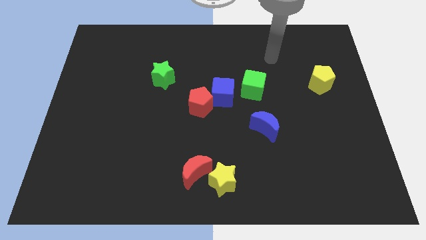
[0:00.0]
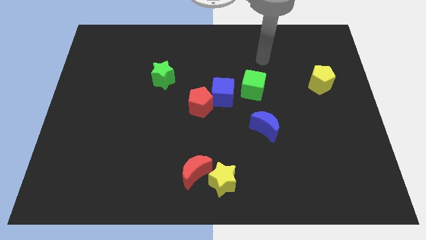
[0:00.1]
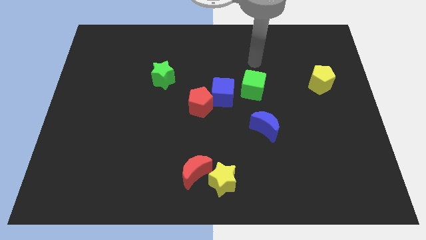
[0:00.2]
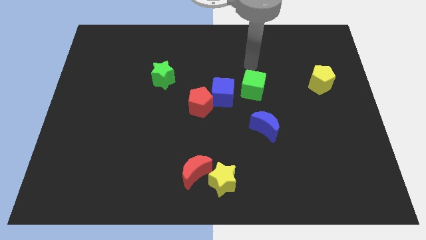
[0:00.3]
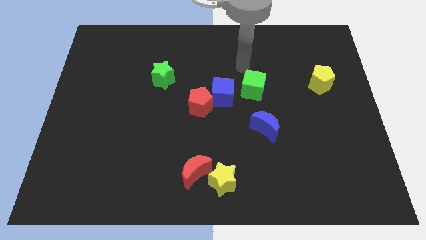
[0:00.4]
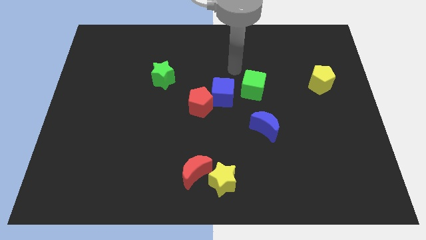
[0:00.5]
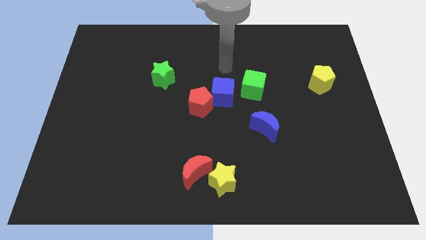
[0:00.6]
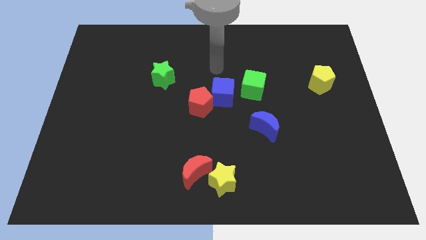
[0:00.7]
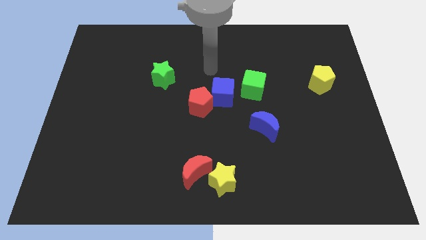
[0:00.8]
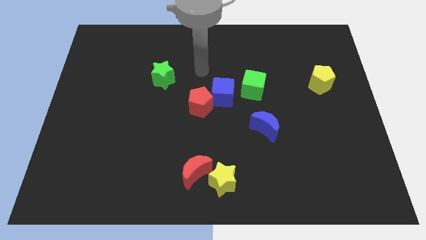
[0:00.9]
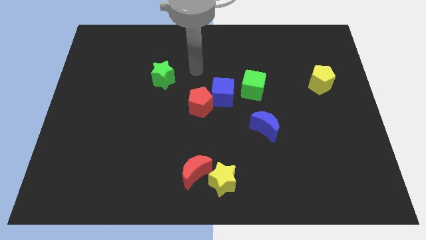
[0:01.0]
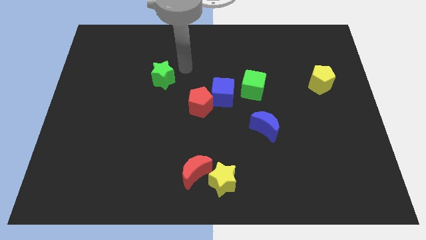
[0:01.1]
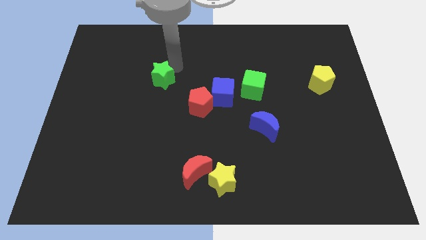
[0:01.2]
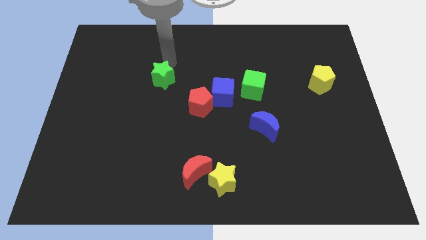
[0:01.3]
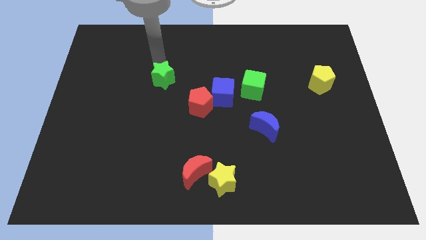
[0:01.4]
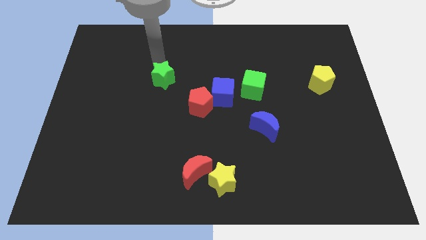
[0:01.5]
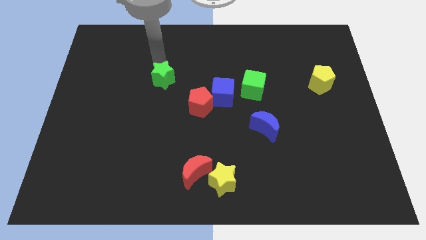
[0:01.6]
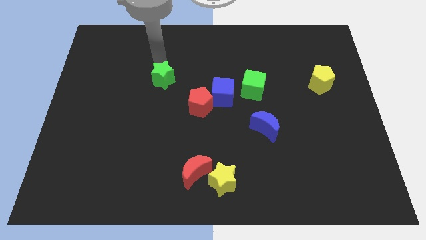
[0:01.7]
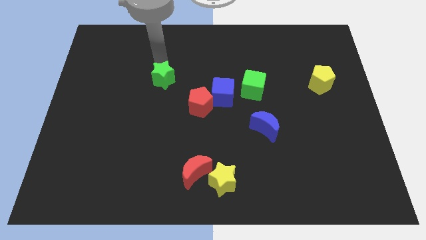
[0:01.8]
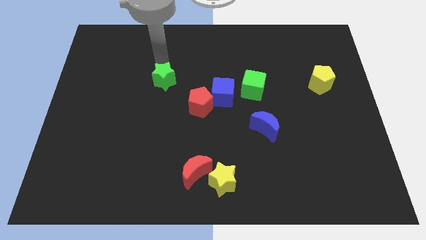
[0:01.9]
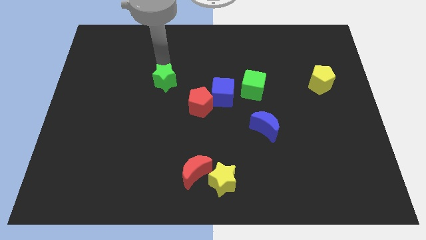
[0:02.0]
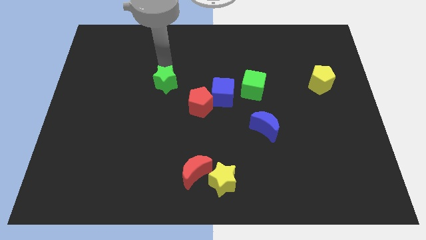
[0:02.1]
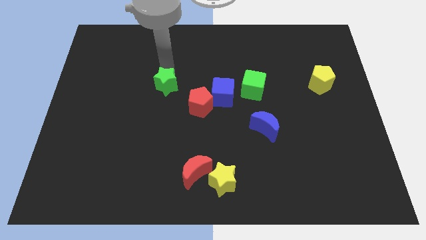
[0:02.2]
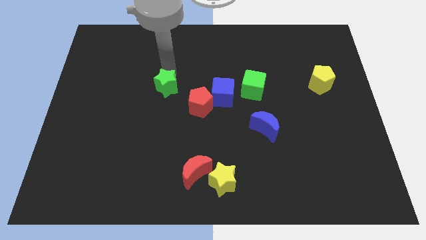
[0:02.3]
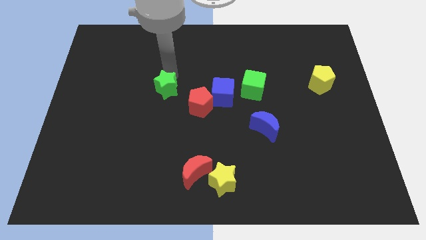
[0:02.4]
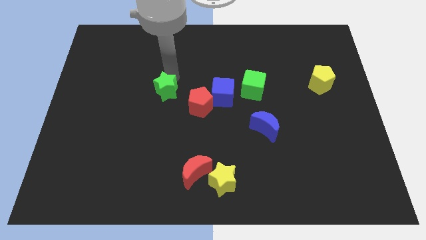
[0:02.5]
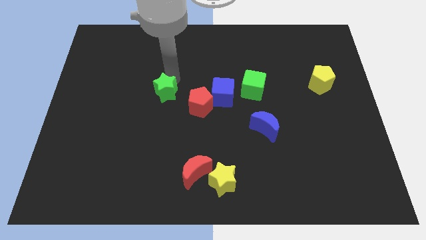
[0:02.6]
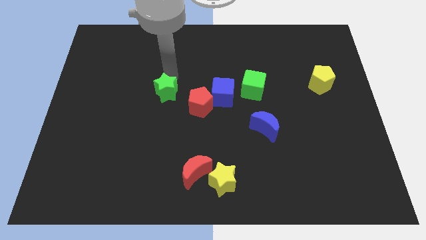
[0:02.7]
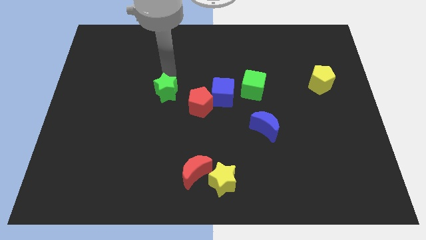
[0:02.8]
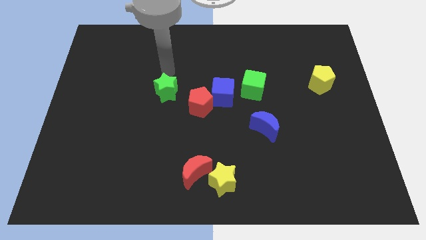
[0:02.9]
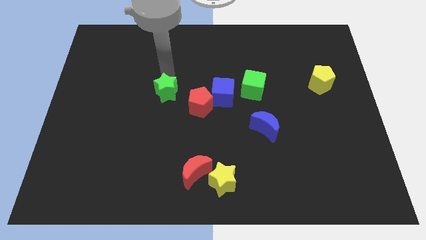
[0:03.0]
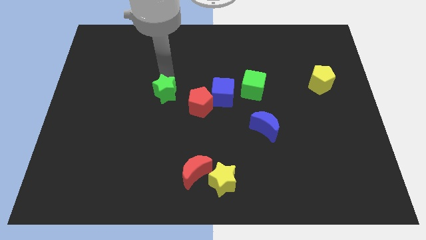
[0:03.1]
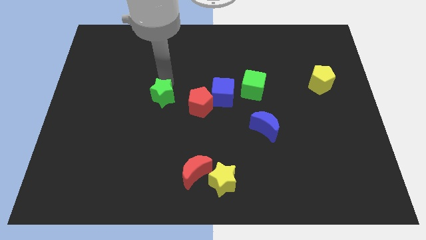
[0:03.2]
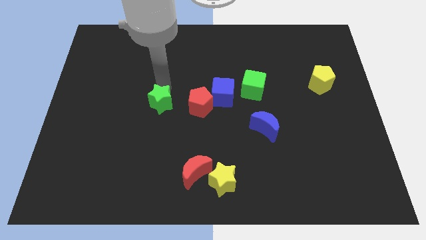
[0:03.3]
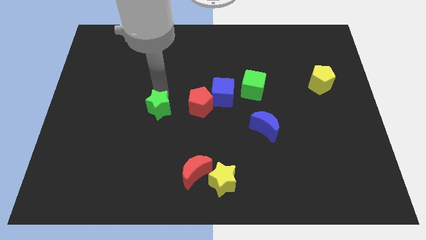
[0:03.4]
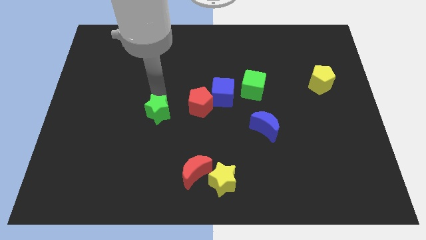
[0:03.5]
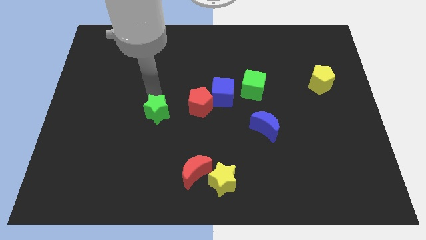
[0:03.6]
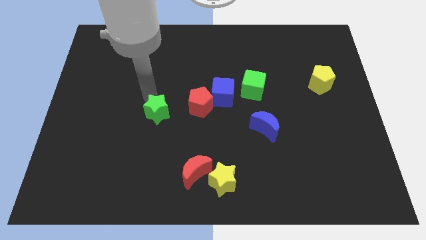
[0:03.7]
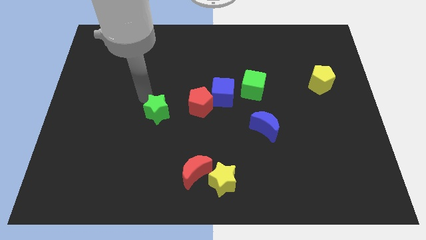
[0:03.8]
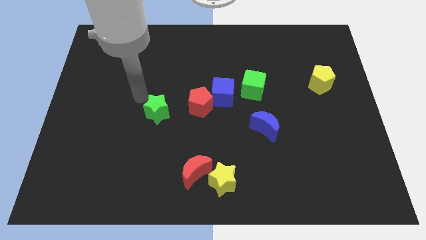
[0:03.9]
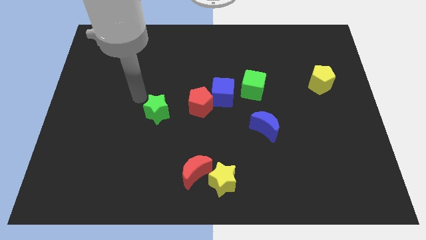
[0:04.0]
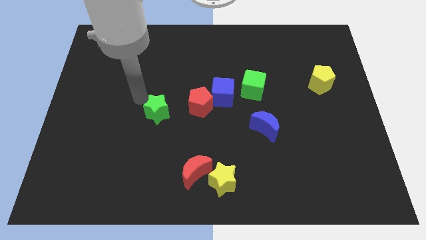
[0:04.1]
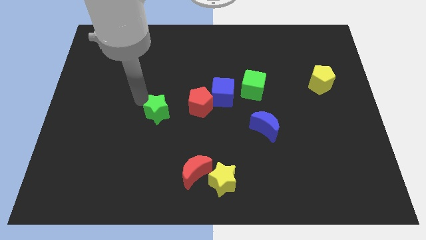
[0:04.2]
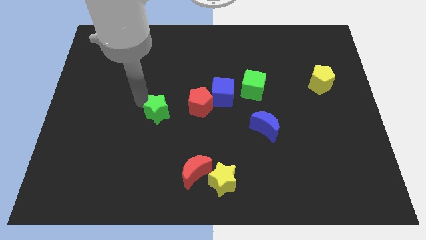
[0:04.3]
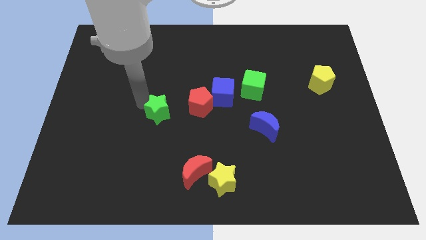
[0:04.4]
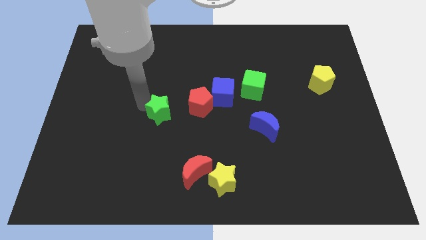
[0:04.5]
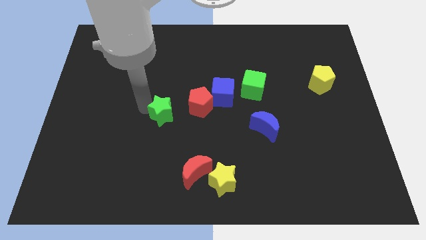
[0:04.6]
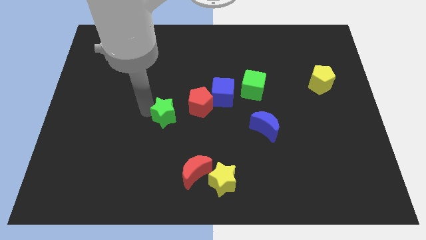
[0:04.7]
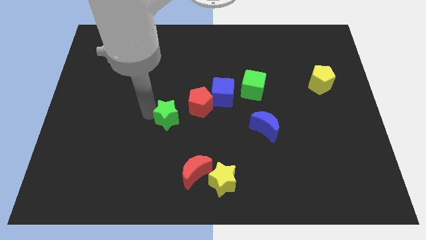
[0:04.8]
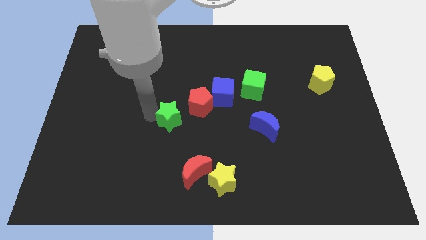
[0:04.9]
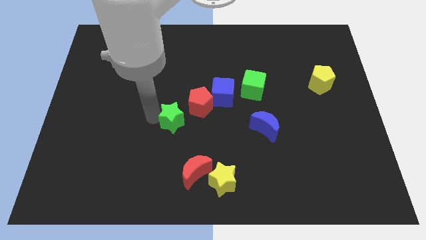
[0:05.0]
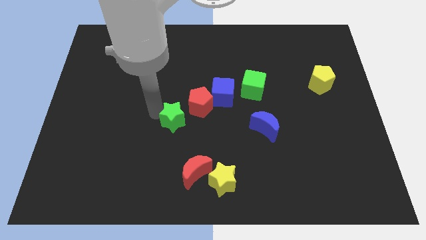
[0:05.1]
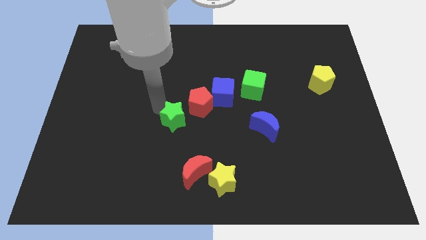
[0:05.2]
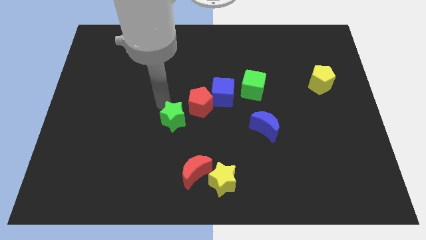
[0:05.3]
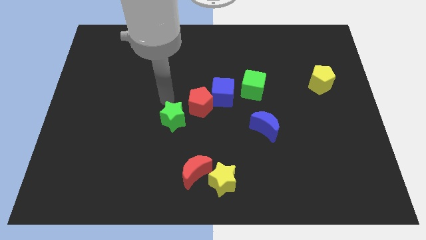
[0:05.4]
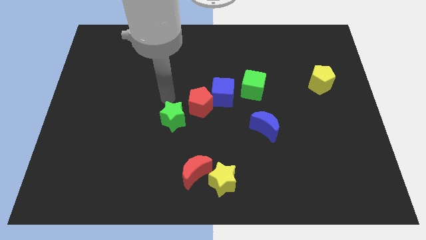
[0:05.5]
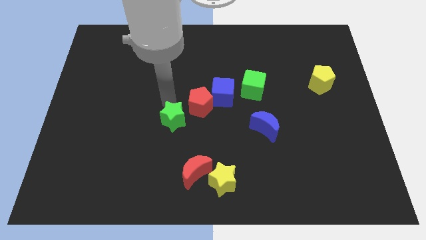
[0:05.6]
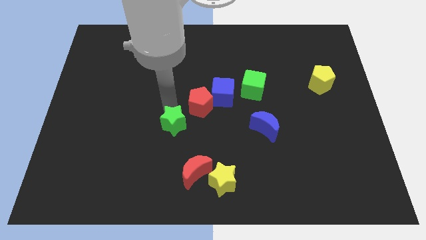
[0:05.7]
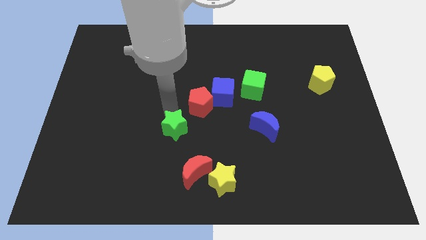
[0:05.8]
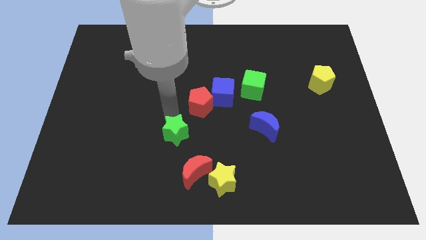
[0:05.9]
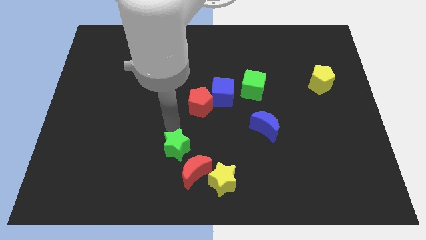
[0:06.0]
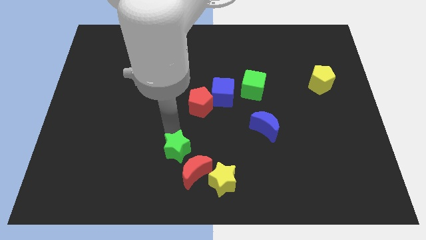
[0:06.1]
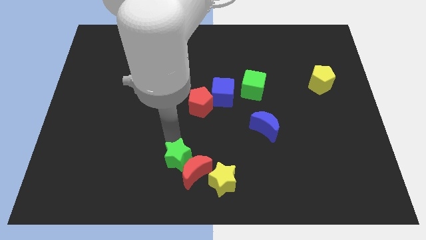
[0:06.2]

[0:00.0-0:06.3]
slide the green star next to the red moon

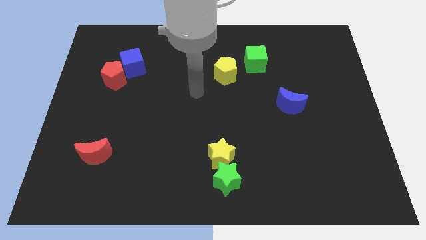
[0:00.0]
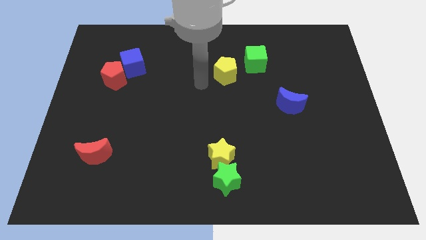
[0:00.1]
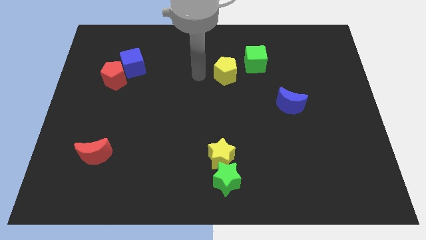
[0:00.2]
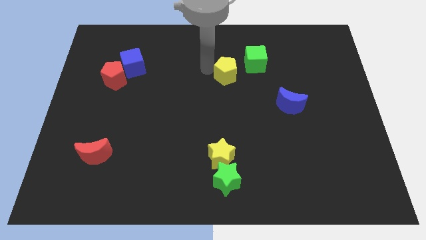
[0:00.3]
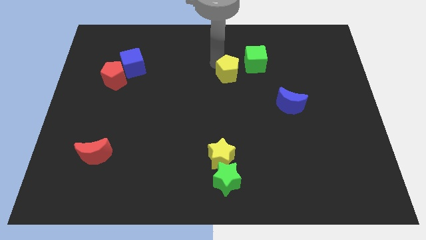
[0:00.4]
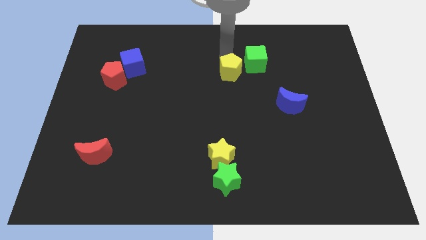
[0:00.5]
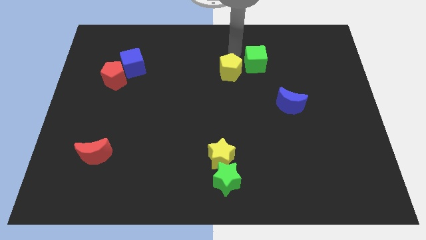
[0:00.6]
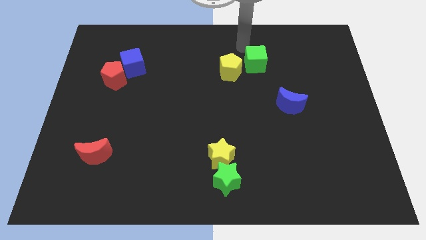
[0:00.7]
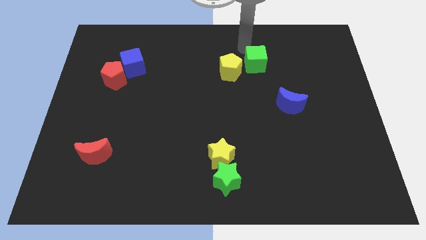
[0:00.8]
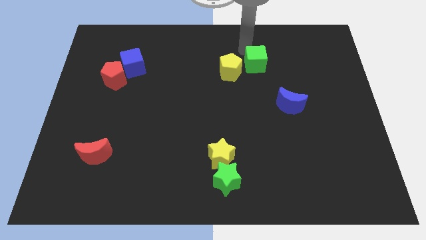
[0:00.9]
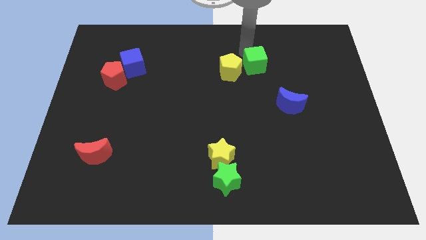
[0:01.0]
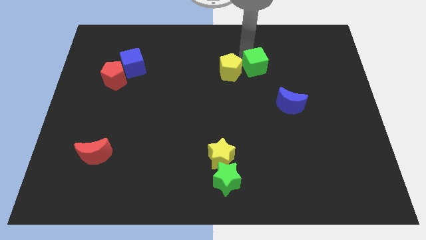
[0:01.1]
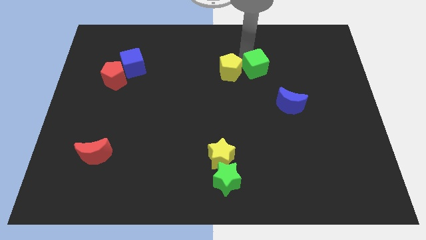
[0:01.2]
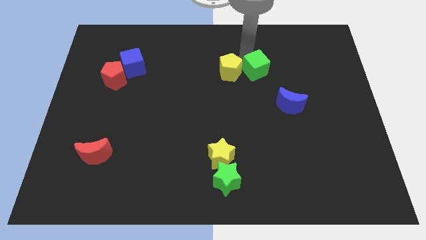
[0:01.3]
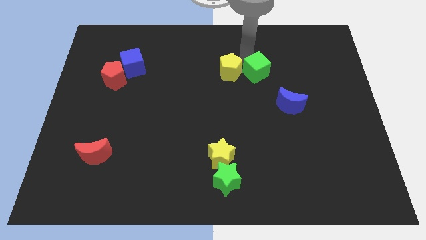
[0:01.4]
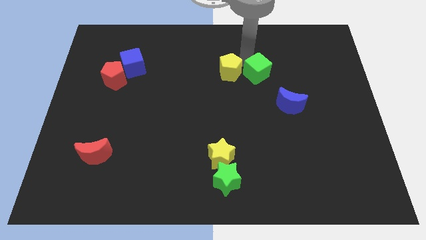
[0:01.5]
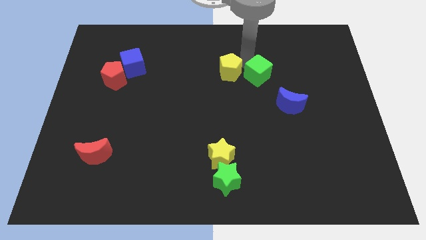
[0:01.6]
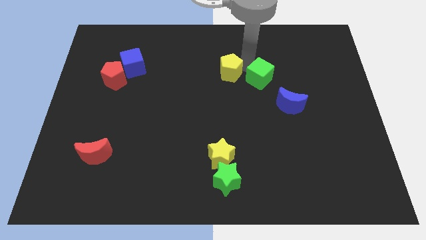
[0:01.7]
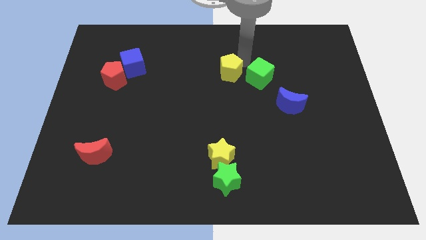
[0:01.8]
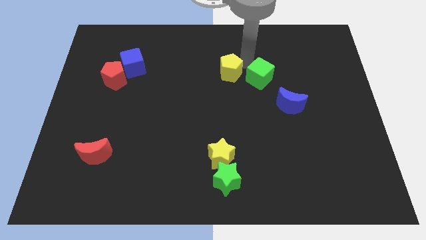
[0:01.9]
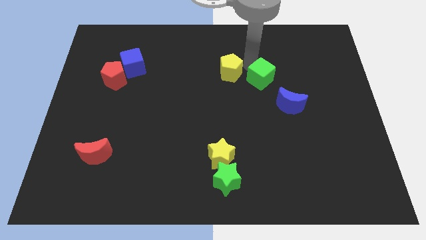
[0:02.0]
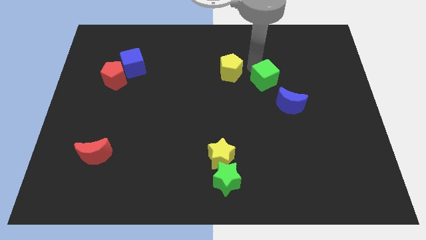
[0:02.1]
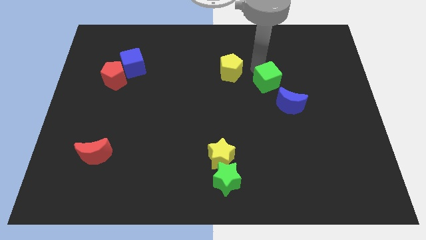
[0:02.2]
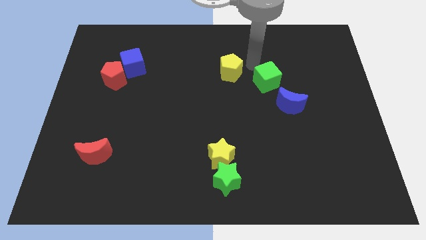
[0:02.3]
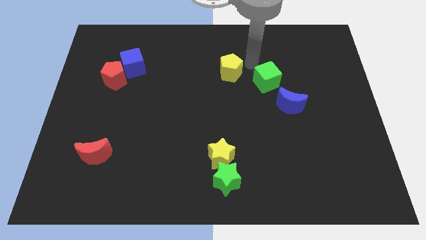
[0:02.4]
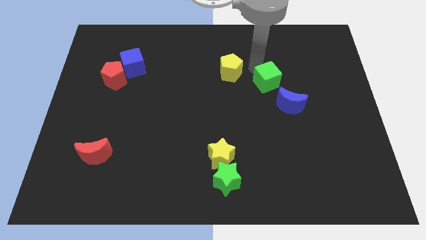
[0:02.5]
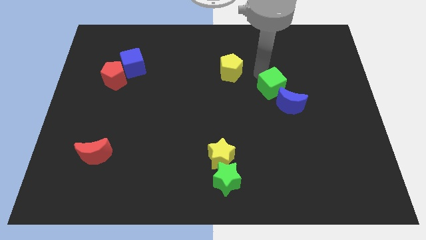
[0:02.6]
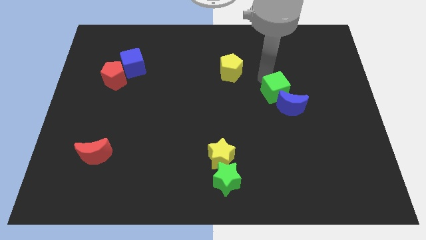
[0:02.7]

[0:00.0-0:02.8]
slide the green cube to the blue moon
